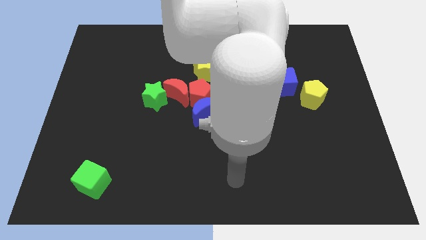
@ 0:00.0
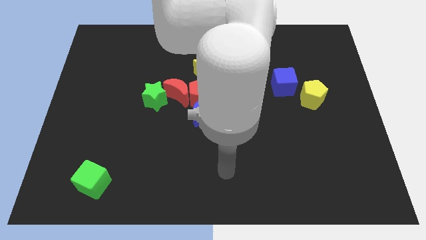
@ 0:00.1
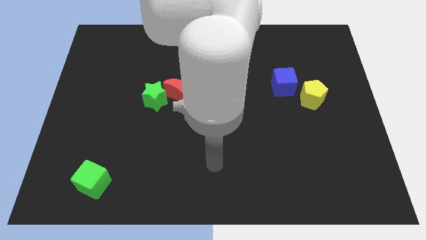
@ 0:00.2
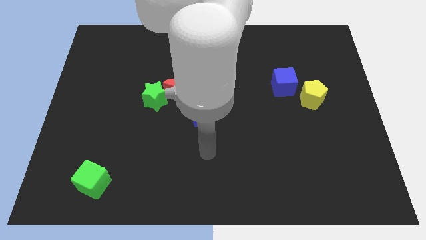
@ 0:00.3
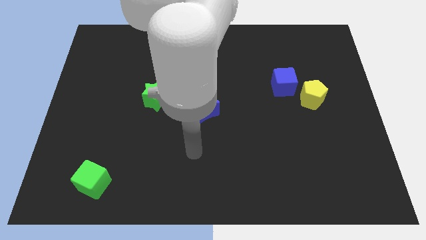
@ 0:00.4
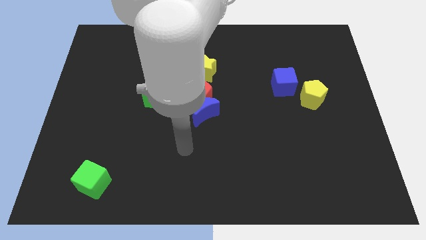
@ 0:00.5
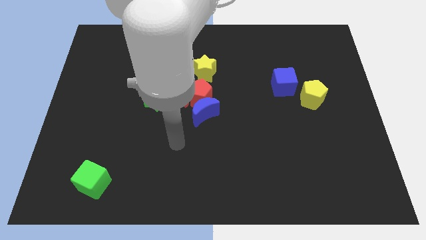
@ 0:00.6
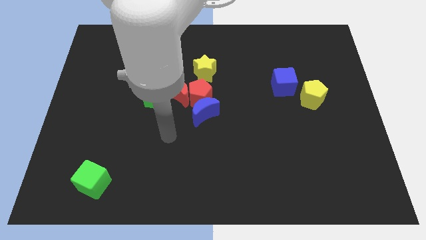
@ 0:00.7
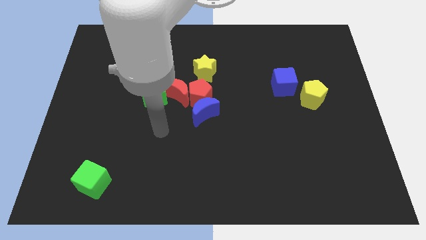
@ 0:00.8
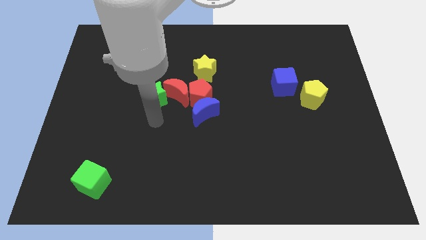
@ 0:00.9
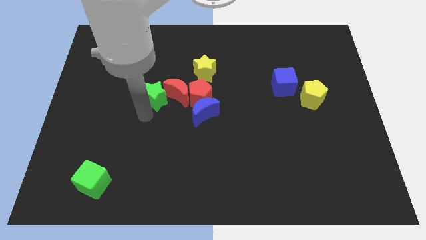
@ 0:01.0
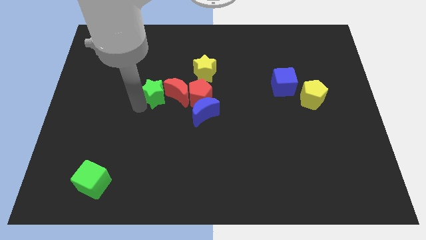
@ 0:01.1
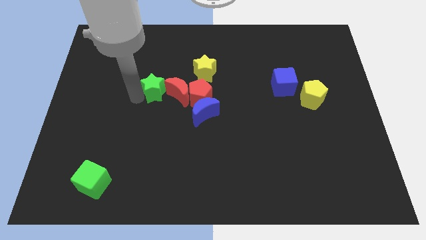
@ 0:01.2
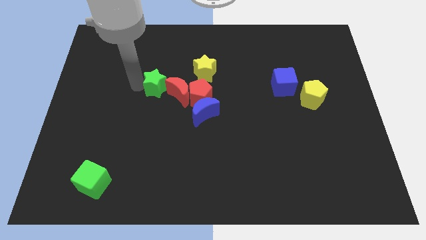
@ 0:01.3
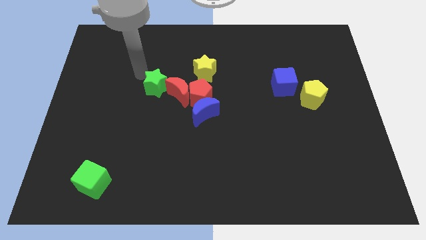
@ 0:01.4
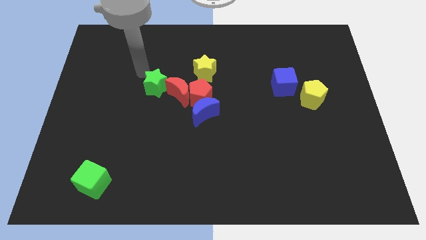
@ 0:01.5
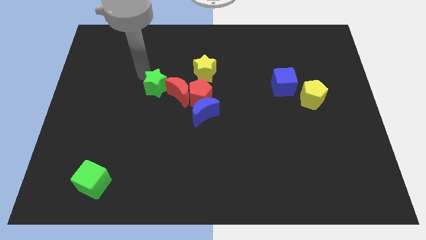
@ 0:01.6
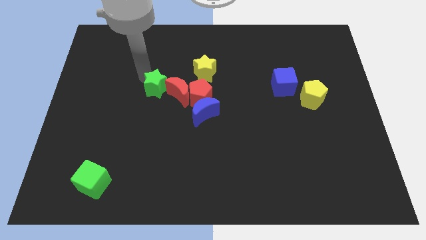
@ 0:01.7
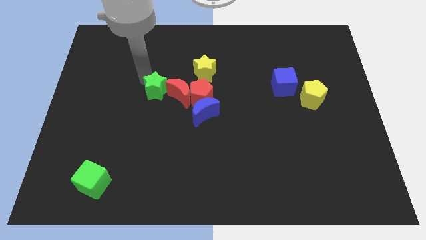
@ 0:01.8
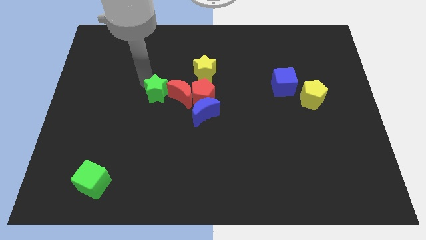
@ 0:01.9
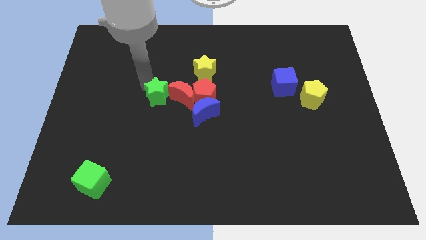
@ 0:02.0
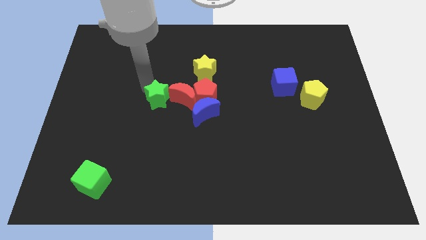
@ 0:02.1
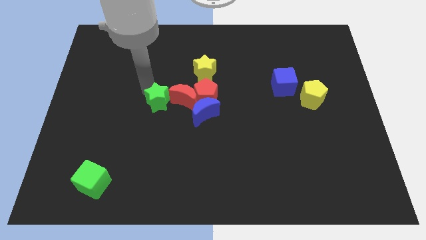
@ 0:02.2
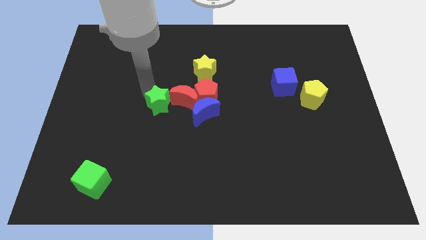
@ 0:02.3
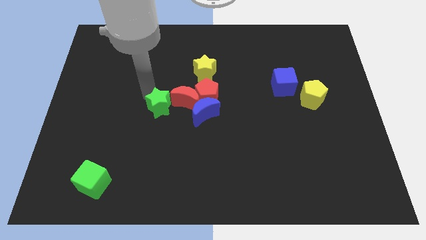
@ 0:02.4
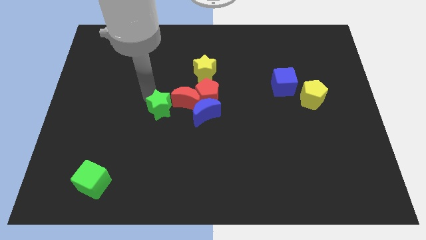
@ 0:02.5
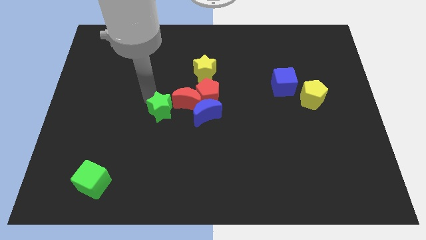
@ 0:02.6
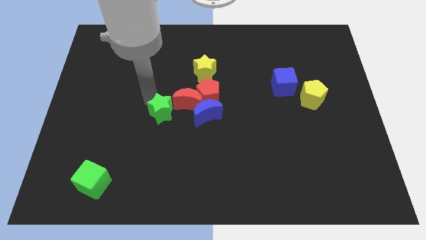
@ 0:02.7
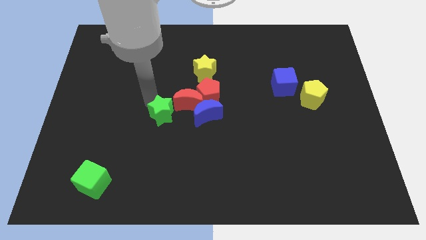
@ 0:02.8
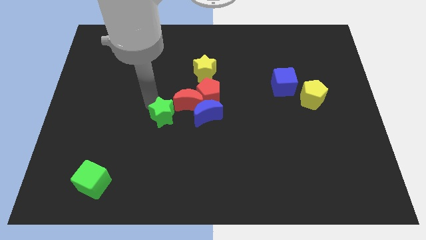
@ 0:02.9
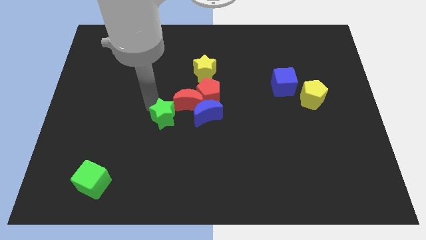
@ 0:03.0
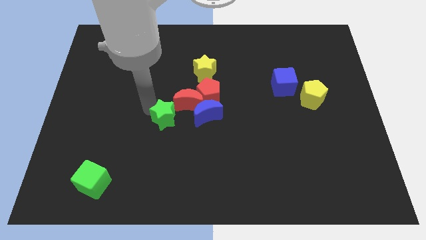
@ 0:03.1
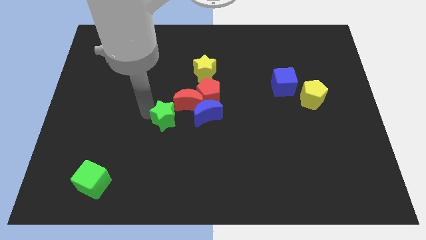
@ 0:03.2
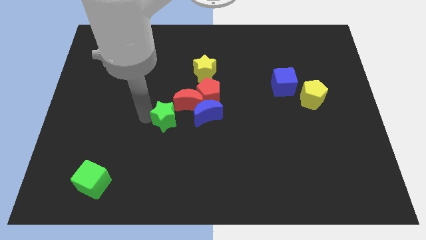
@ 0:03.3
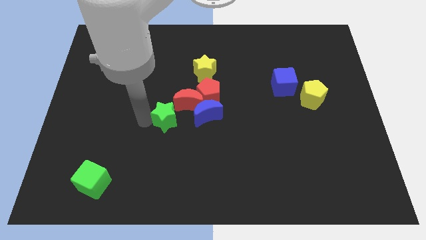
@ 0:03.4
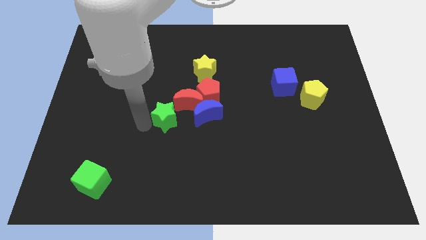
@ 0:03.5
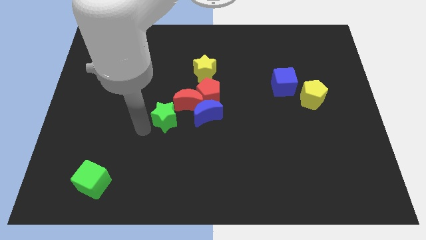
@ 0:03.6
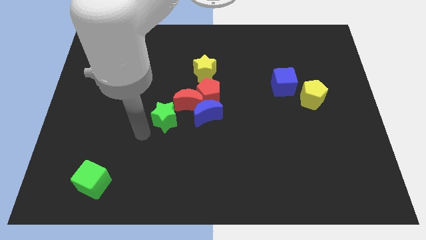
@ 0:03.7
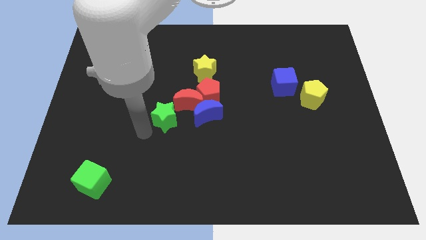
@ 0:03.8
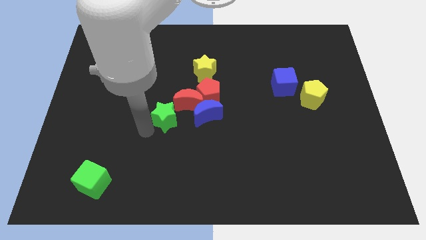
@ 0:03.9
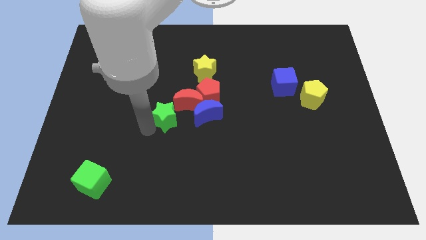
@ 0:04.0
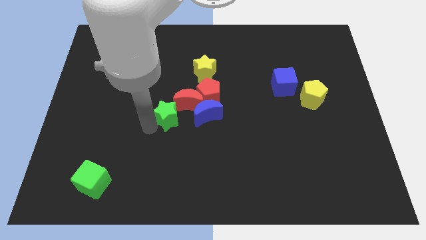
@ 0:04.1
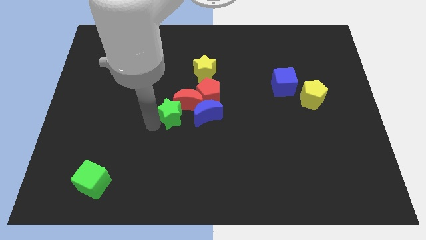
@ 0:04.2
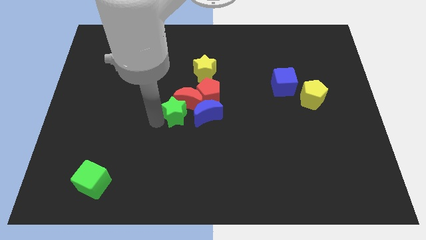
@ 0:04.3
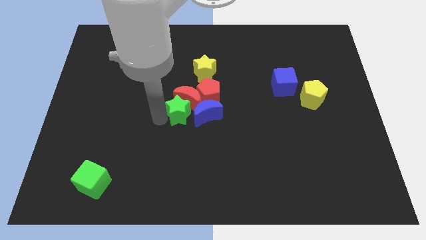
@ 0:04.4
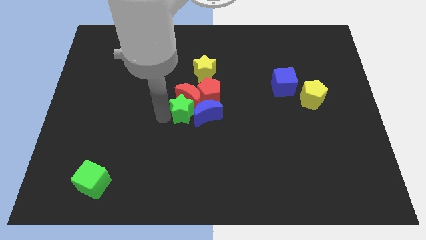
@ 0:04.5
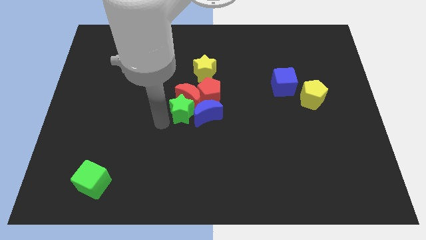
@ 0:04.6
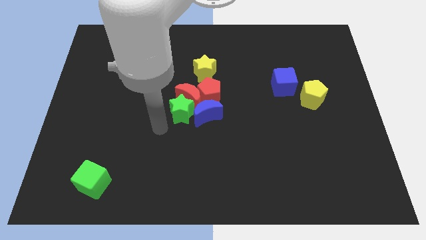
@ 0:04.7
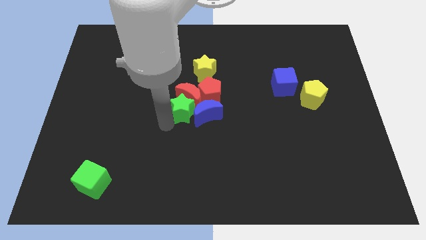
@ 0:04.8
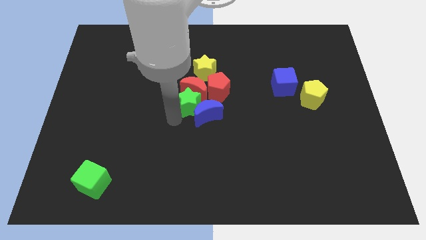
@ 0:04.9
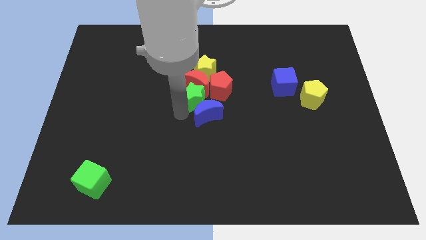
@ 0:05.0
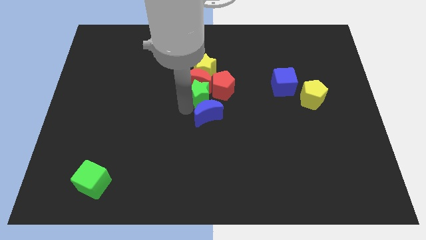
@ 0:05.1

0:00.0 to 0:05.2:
move the green star next to the red pentagon

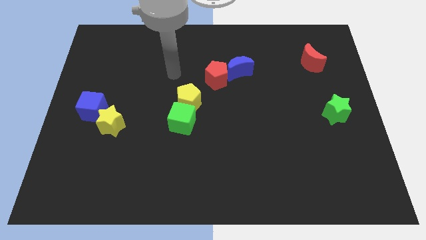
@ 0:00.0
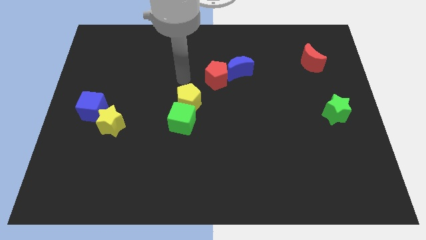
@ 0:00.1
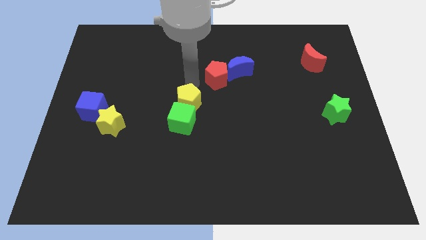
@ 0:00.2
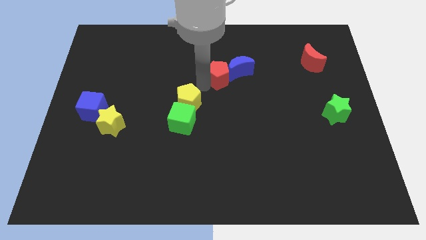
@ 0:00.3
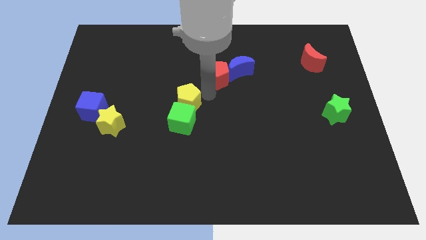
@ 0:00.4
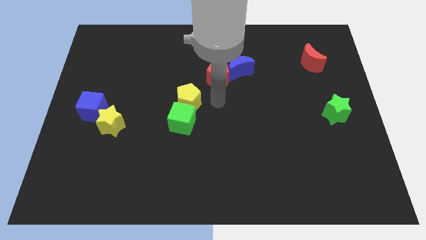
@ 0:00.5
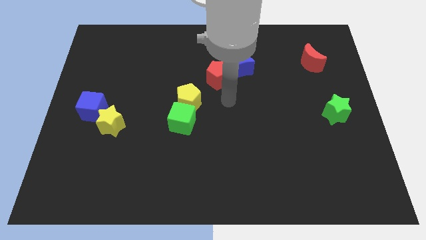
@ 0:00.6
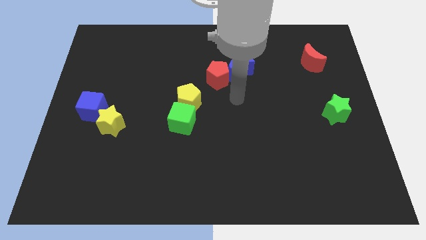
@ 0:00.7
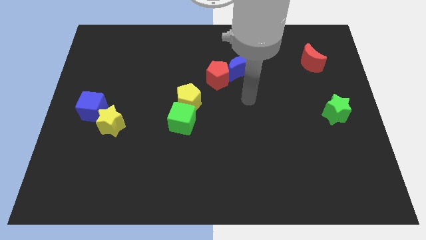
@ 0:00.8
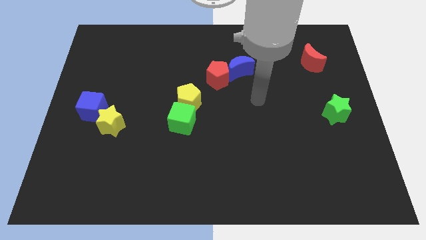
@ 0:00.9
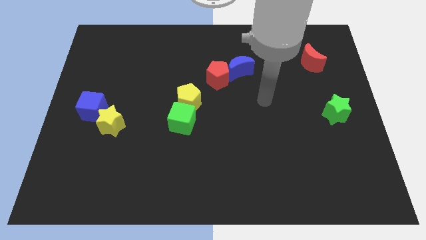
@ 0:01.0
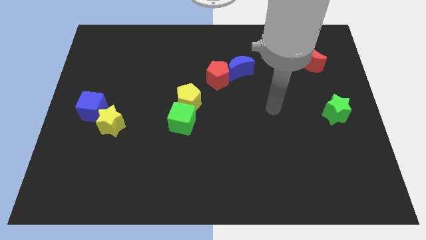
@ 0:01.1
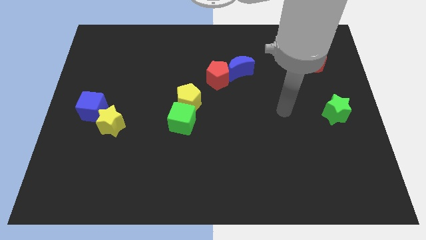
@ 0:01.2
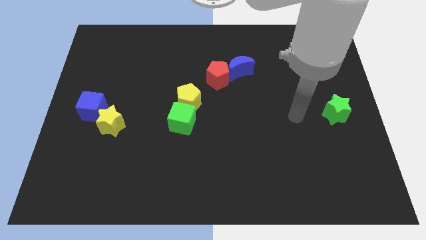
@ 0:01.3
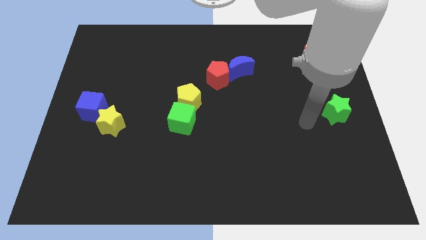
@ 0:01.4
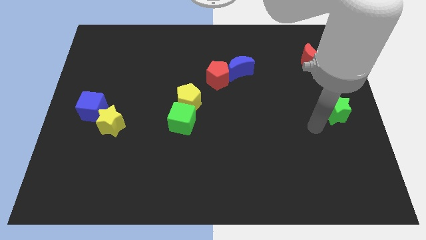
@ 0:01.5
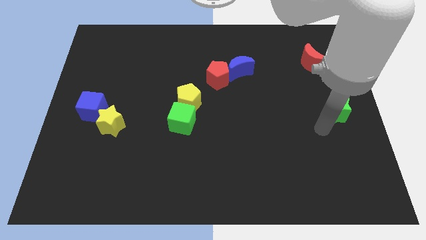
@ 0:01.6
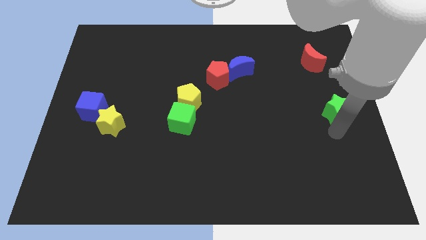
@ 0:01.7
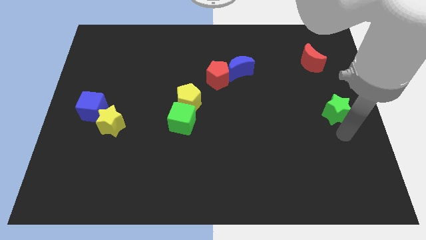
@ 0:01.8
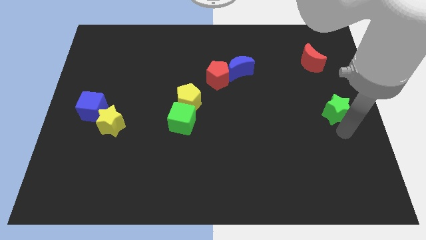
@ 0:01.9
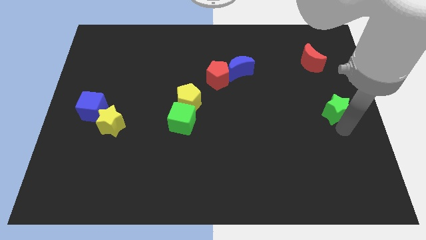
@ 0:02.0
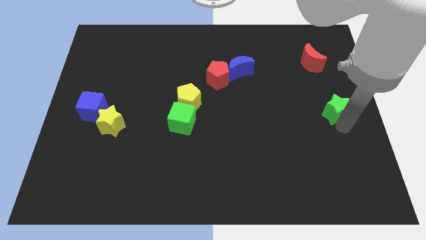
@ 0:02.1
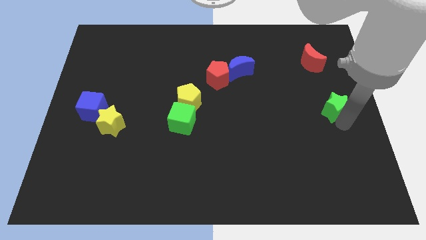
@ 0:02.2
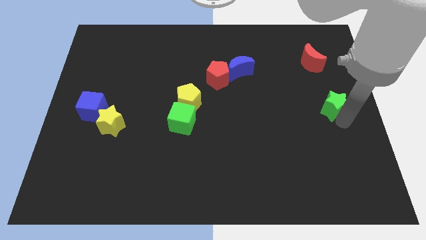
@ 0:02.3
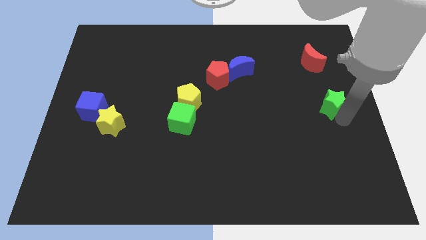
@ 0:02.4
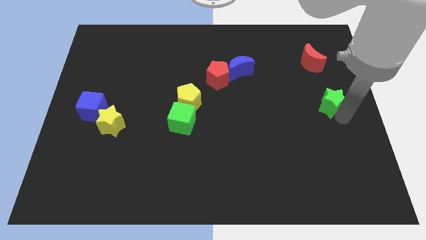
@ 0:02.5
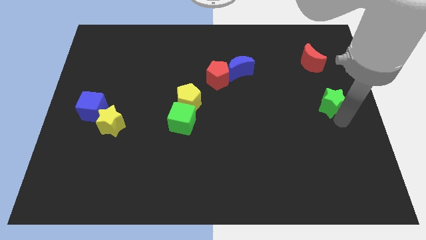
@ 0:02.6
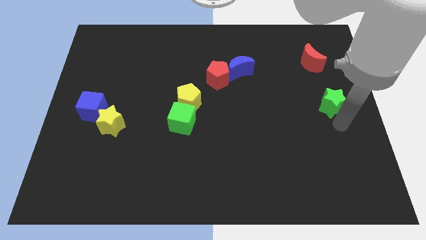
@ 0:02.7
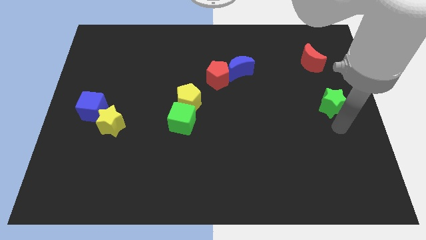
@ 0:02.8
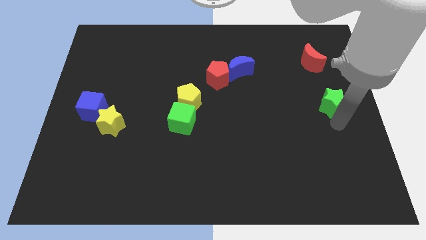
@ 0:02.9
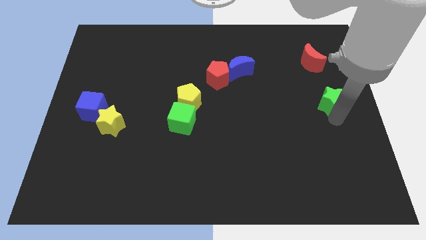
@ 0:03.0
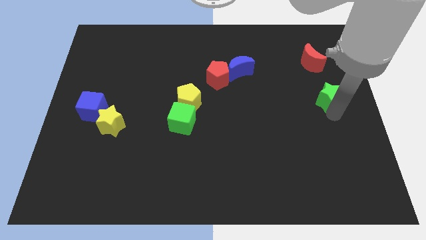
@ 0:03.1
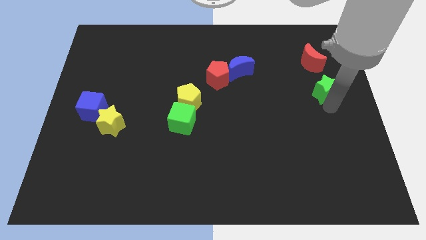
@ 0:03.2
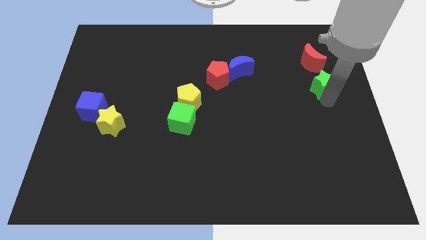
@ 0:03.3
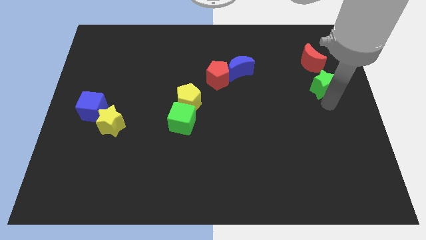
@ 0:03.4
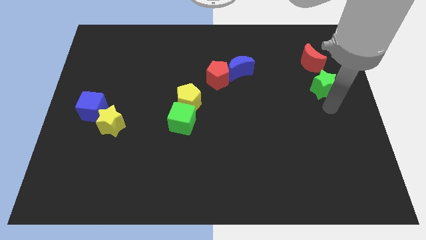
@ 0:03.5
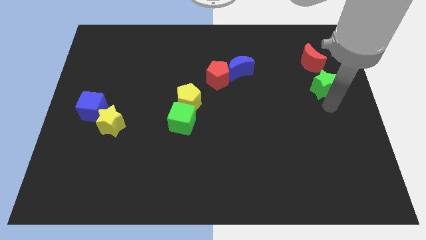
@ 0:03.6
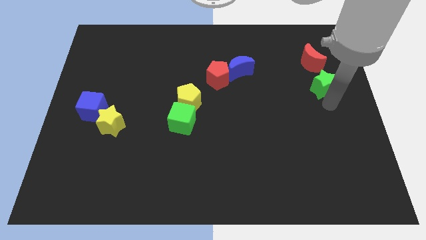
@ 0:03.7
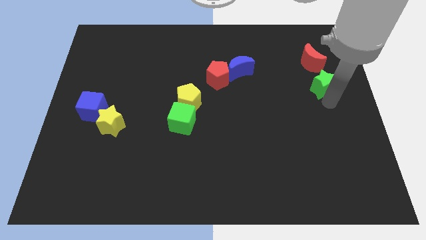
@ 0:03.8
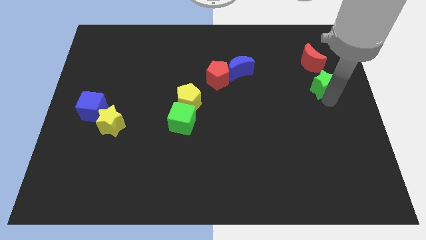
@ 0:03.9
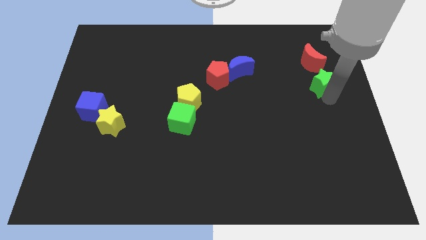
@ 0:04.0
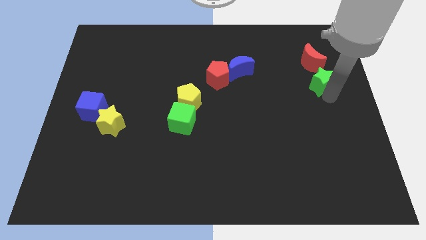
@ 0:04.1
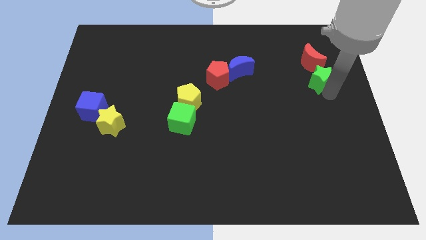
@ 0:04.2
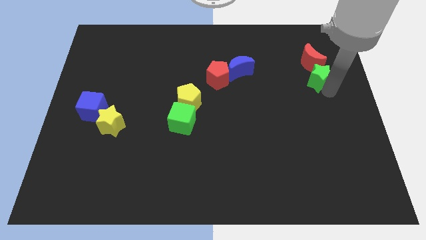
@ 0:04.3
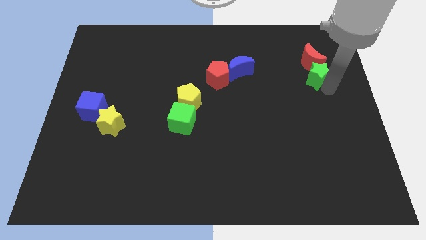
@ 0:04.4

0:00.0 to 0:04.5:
slide the green star towards the red moon
